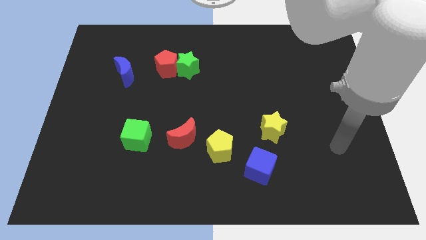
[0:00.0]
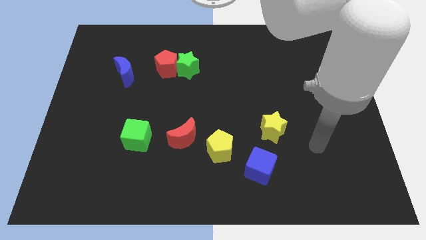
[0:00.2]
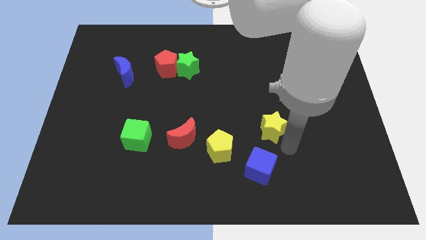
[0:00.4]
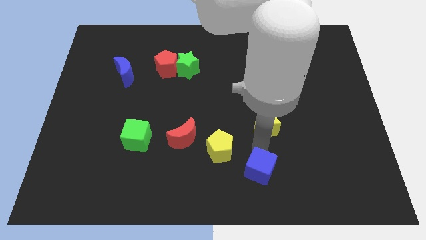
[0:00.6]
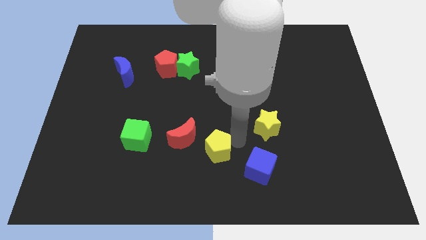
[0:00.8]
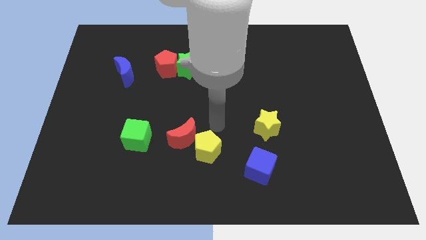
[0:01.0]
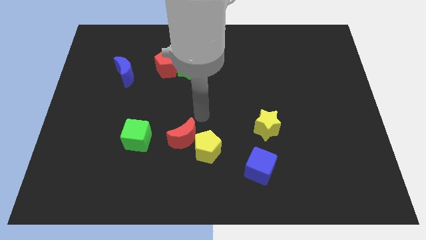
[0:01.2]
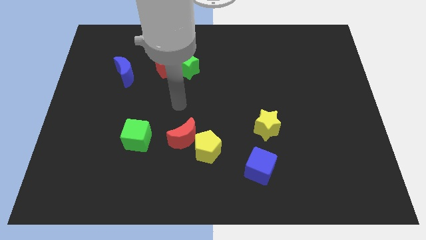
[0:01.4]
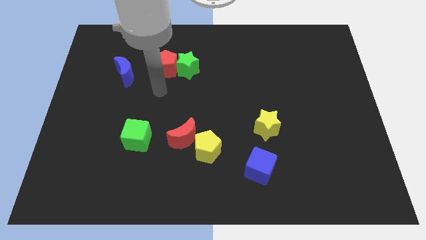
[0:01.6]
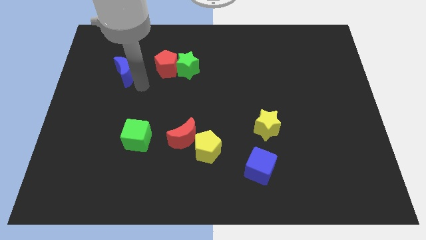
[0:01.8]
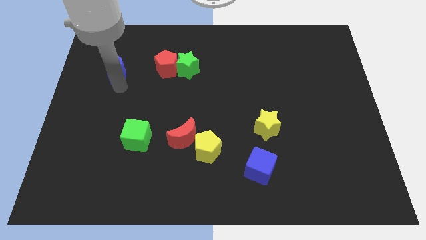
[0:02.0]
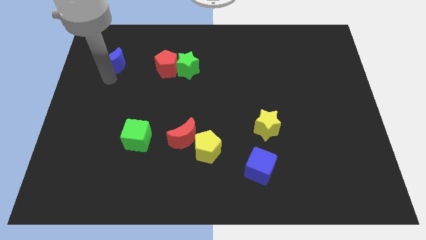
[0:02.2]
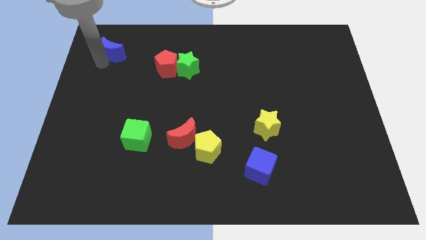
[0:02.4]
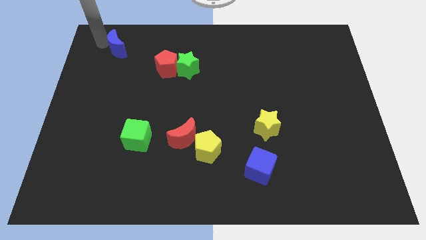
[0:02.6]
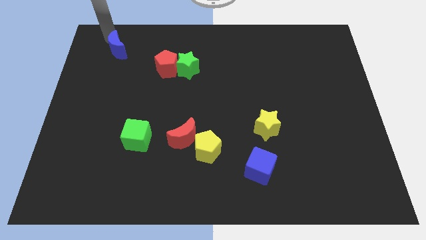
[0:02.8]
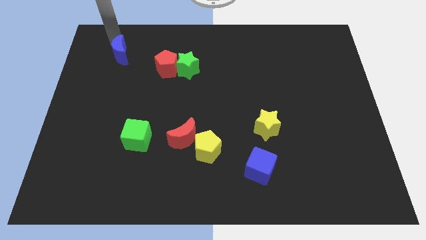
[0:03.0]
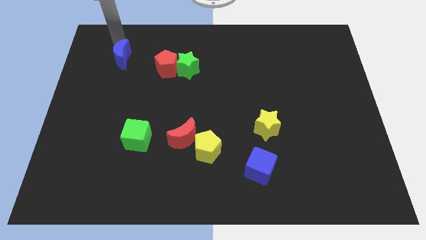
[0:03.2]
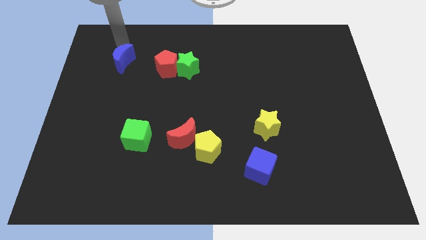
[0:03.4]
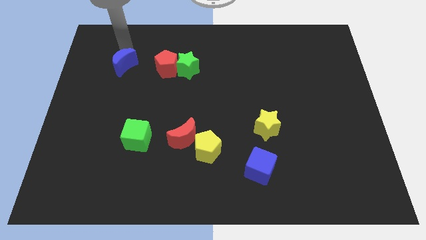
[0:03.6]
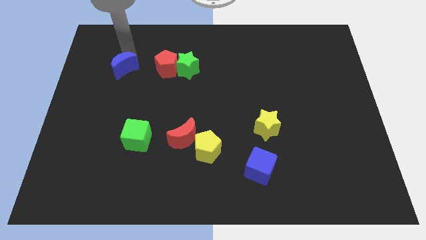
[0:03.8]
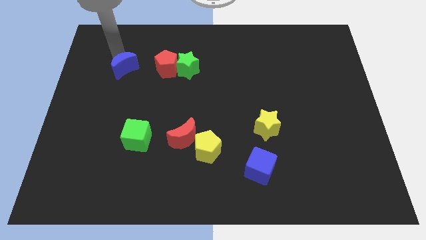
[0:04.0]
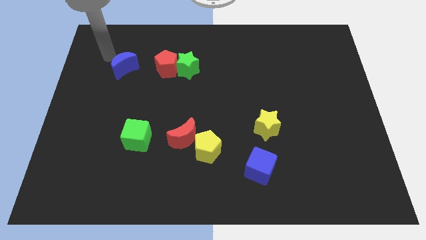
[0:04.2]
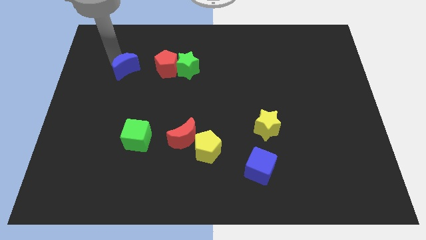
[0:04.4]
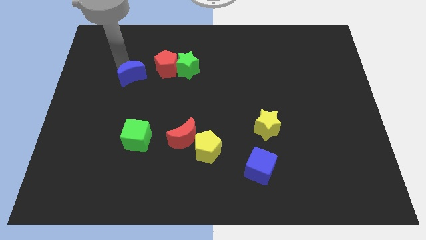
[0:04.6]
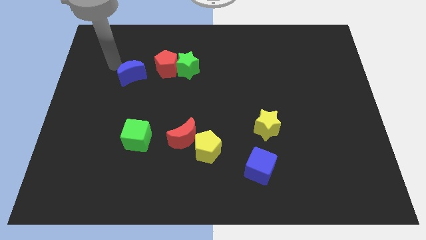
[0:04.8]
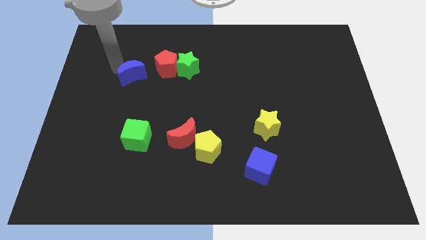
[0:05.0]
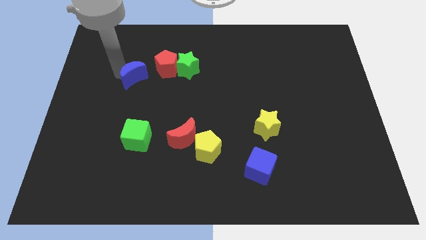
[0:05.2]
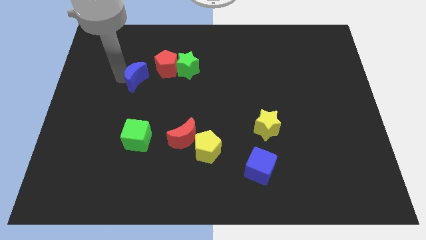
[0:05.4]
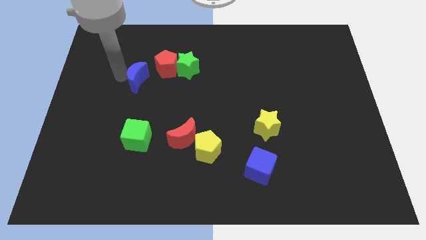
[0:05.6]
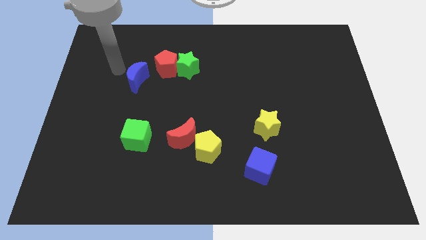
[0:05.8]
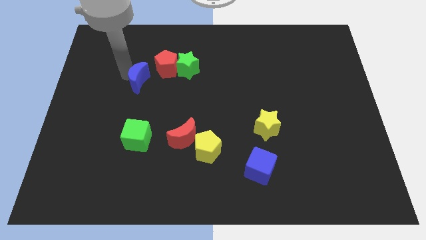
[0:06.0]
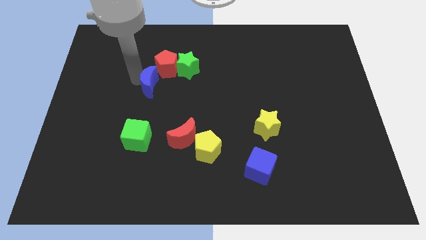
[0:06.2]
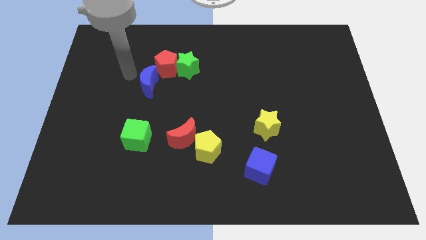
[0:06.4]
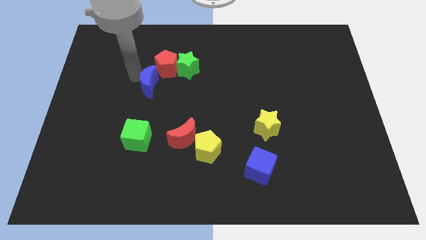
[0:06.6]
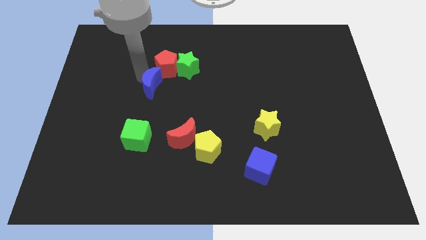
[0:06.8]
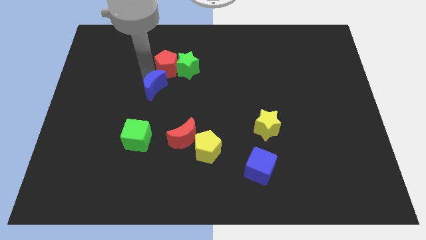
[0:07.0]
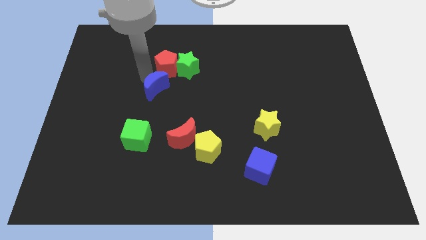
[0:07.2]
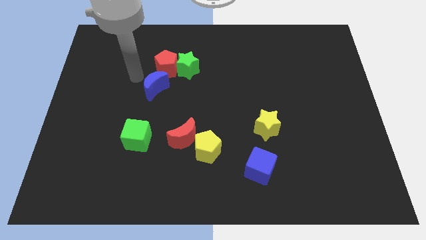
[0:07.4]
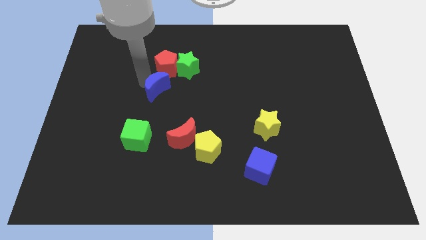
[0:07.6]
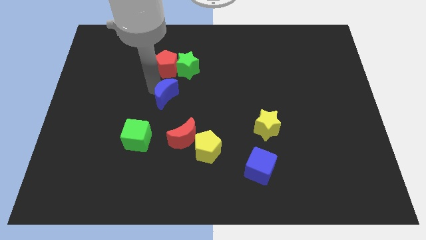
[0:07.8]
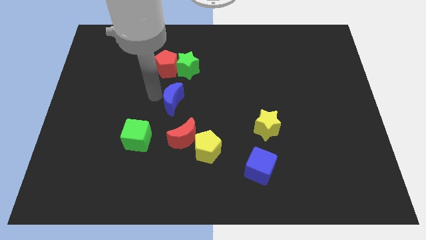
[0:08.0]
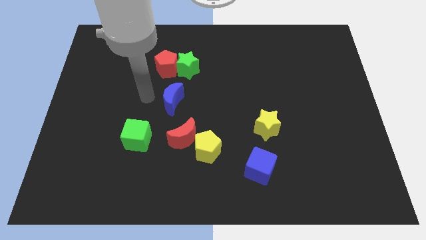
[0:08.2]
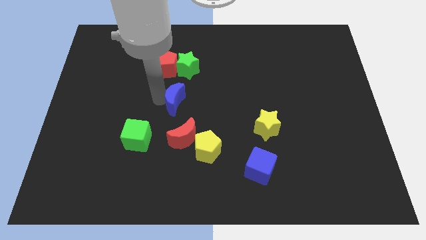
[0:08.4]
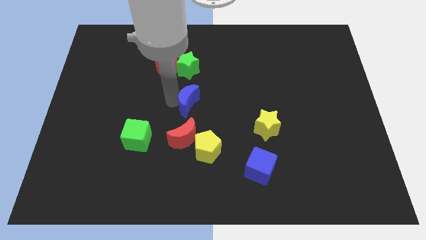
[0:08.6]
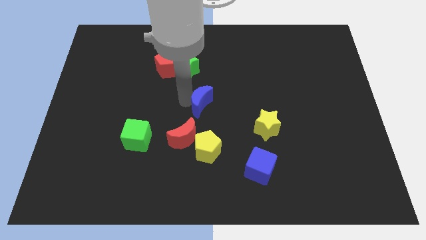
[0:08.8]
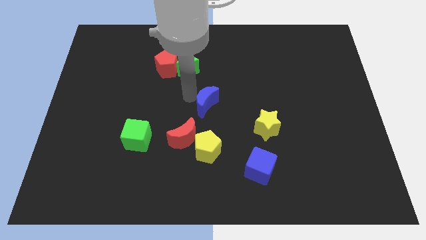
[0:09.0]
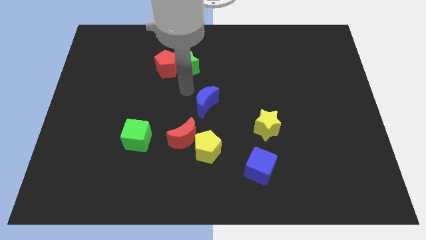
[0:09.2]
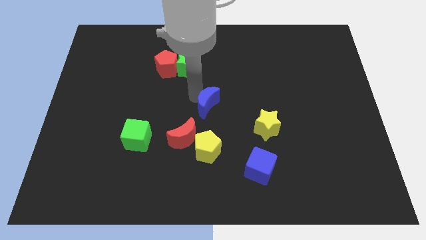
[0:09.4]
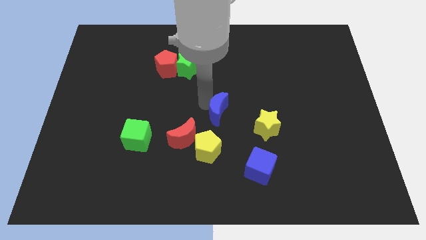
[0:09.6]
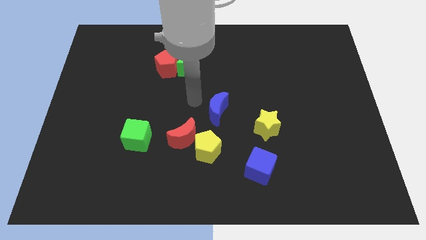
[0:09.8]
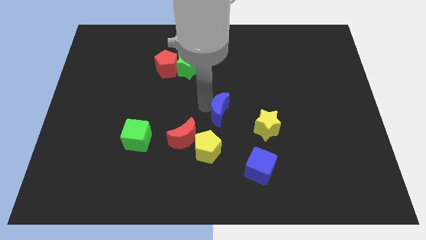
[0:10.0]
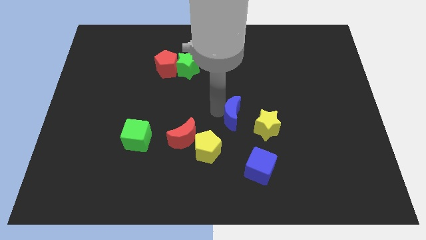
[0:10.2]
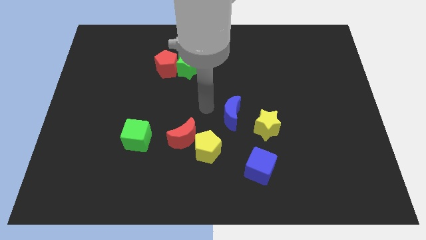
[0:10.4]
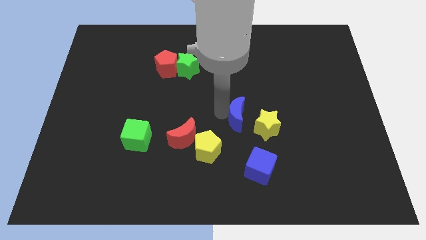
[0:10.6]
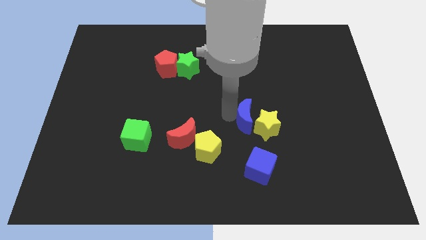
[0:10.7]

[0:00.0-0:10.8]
push the blue moon close to the yellow star

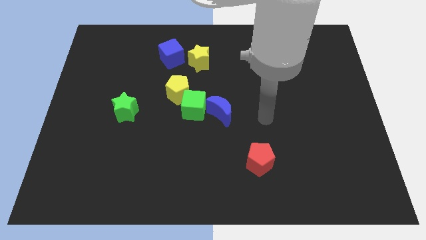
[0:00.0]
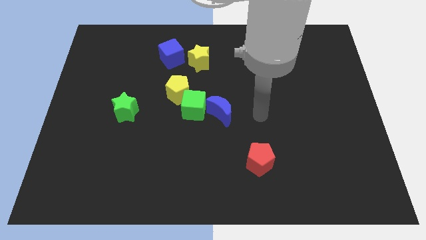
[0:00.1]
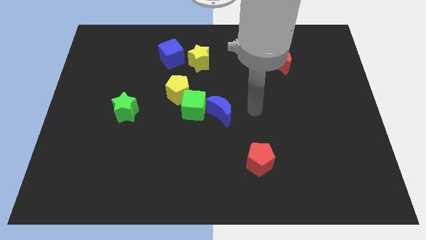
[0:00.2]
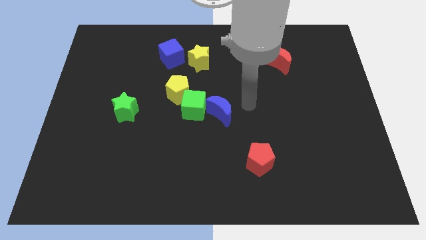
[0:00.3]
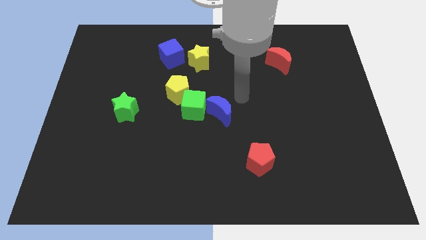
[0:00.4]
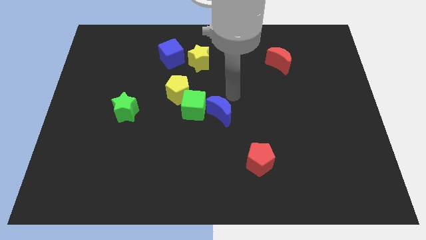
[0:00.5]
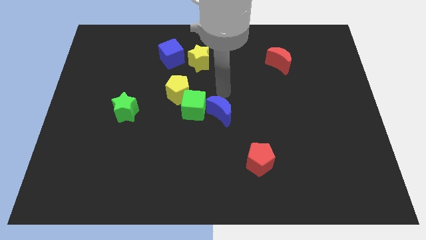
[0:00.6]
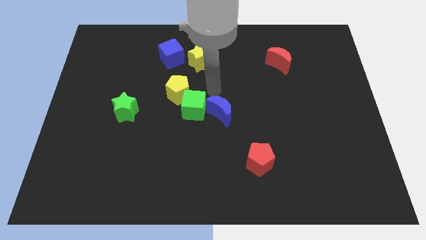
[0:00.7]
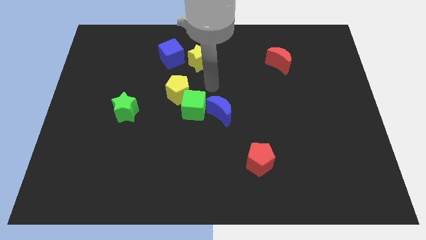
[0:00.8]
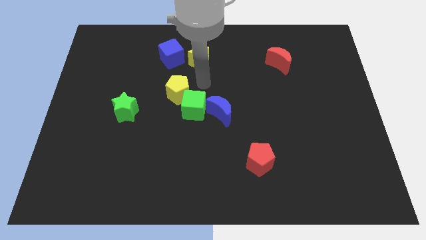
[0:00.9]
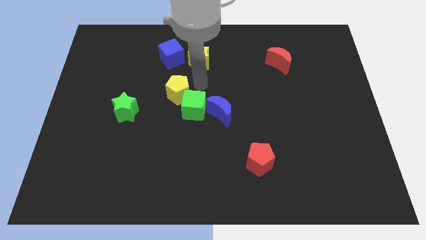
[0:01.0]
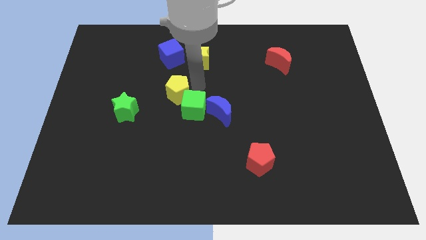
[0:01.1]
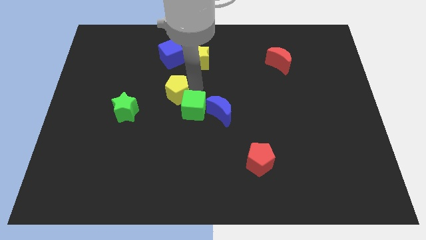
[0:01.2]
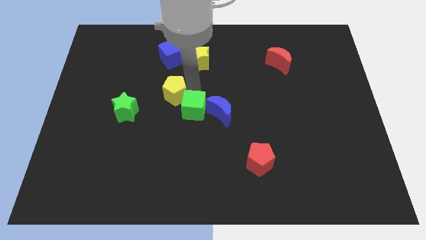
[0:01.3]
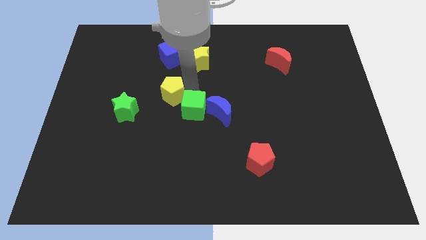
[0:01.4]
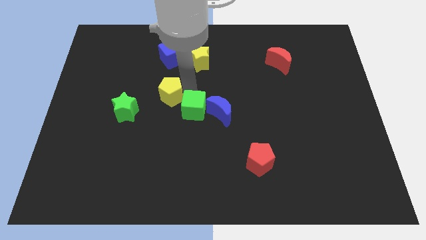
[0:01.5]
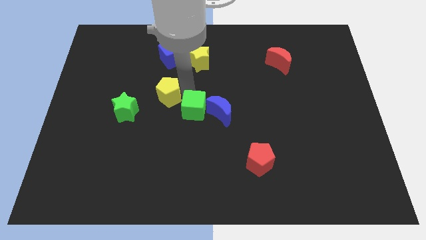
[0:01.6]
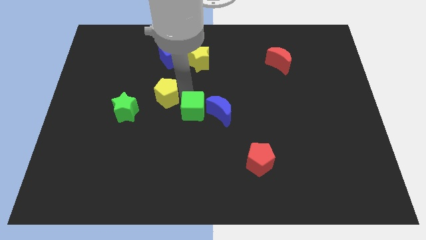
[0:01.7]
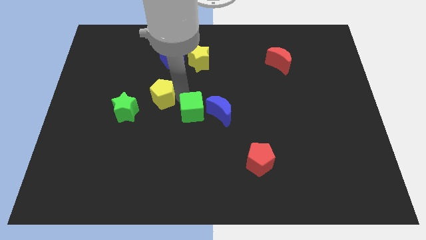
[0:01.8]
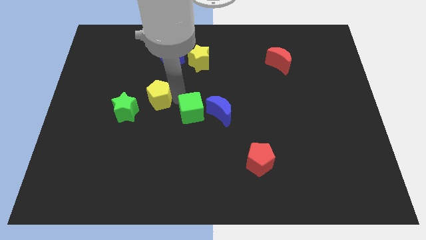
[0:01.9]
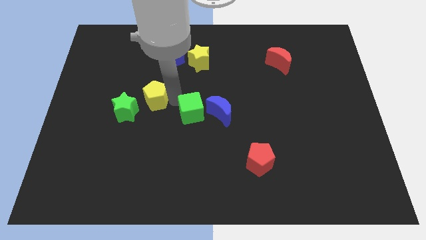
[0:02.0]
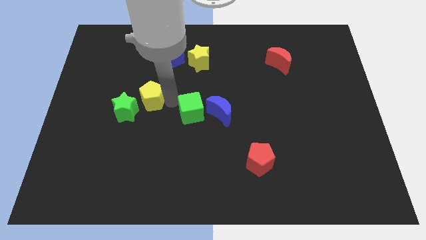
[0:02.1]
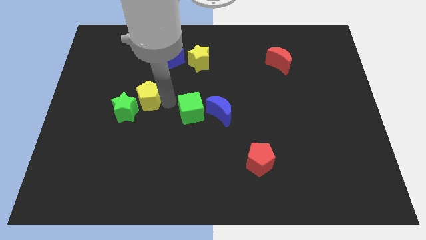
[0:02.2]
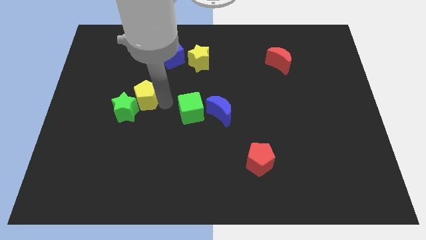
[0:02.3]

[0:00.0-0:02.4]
push the yellow pentagon close to the green star
